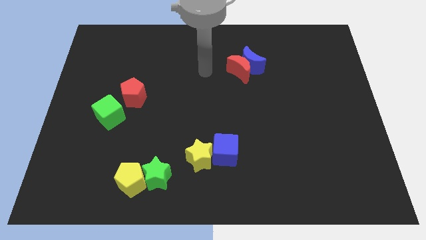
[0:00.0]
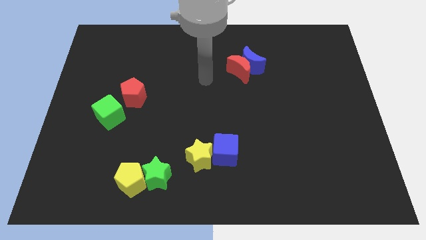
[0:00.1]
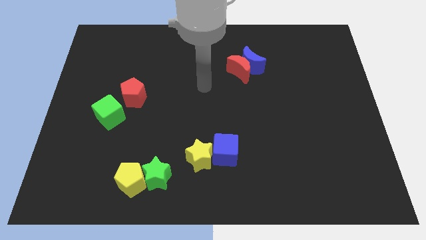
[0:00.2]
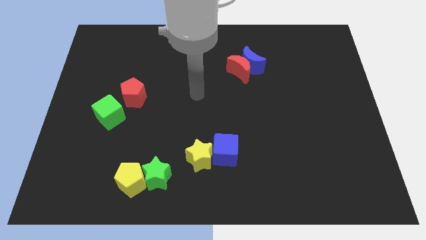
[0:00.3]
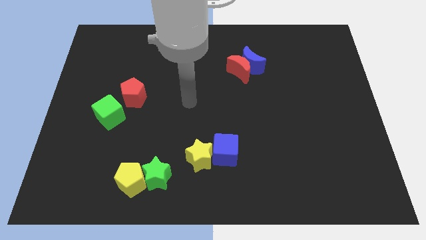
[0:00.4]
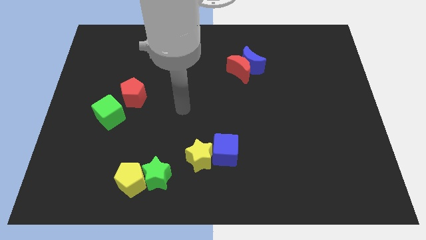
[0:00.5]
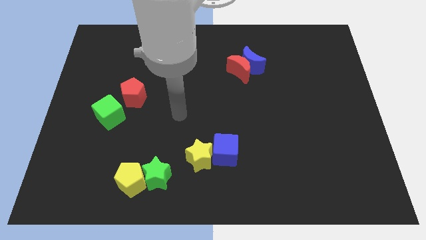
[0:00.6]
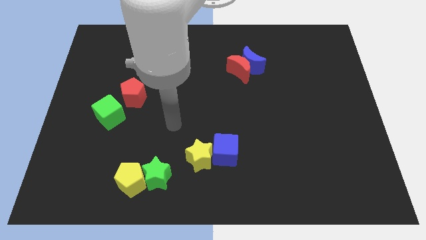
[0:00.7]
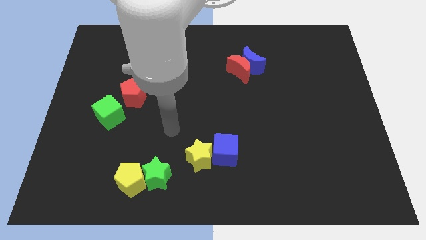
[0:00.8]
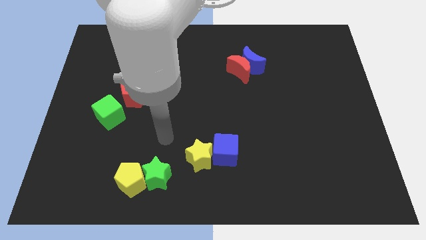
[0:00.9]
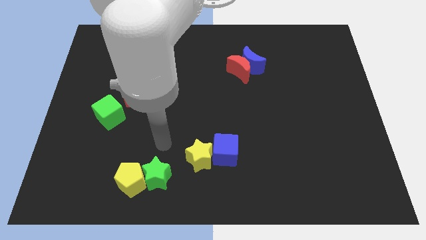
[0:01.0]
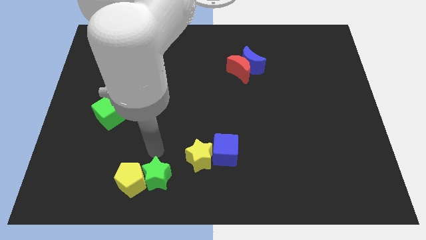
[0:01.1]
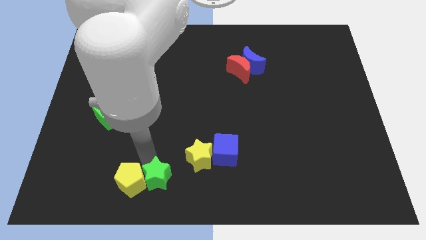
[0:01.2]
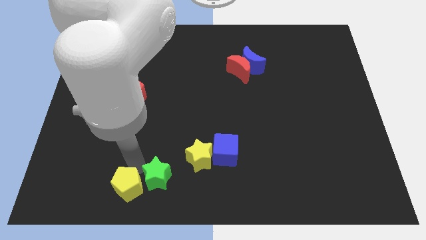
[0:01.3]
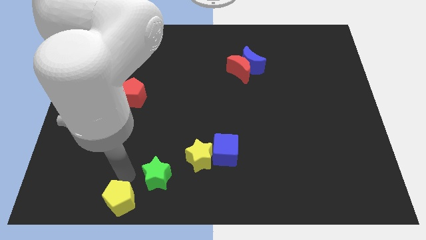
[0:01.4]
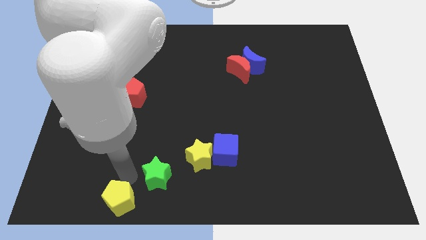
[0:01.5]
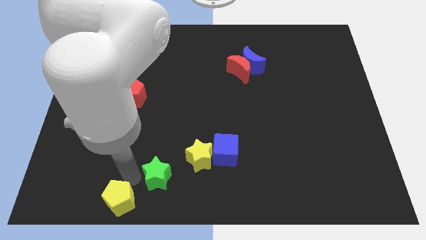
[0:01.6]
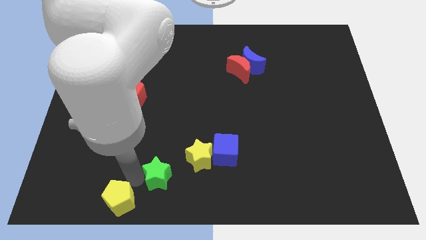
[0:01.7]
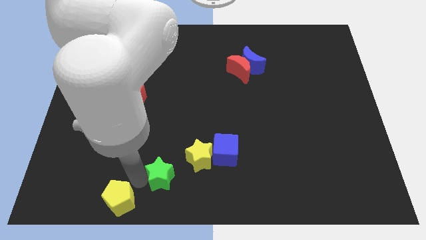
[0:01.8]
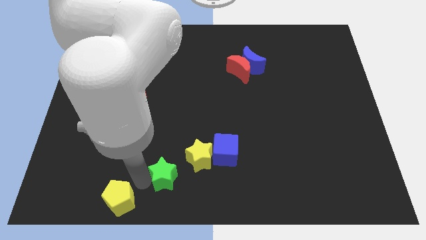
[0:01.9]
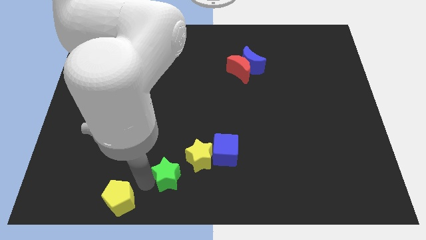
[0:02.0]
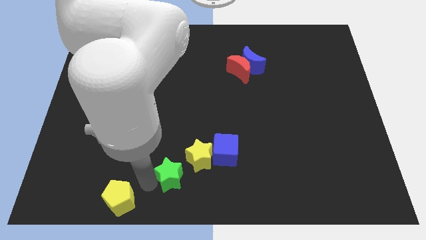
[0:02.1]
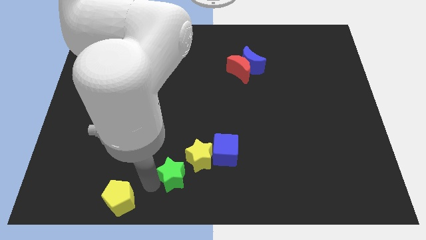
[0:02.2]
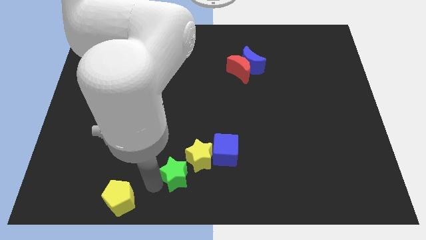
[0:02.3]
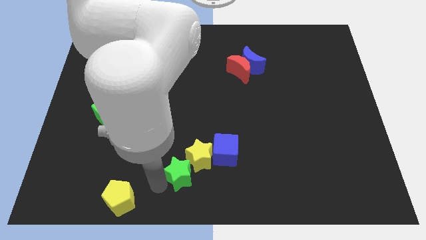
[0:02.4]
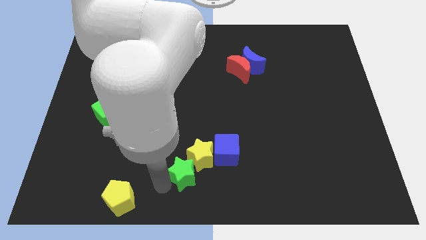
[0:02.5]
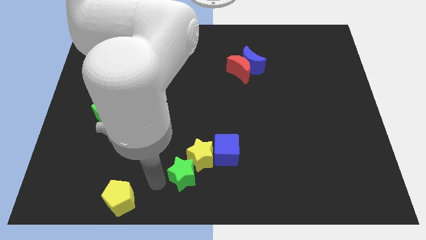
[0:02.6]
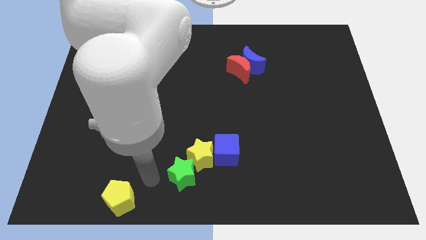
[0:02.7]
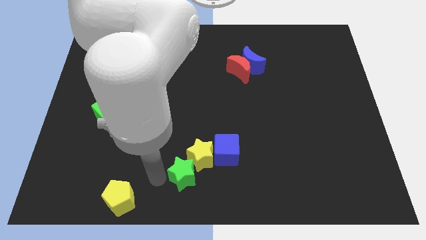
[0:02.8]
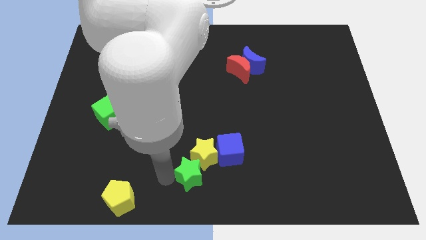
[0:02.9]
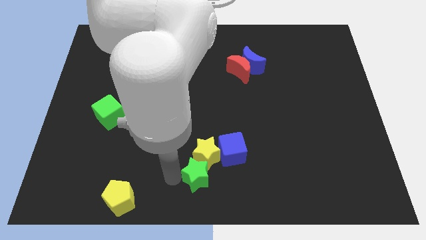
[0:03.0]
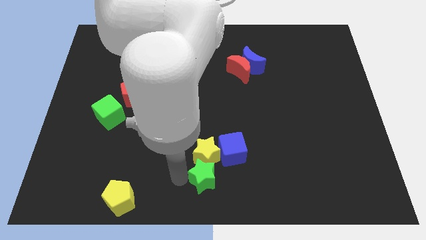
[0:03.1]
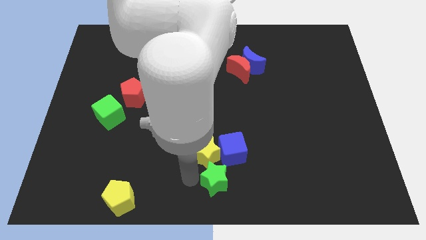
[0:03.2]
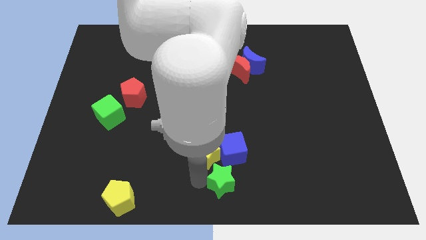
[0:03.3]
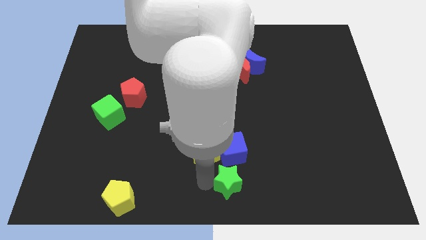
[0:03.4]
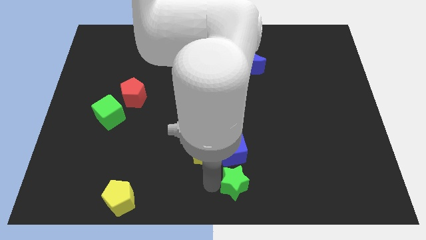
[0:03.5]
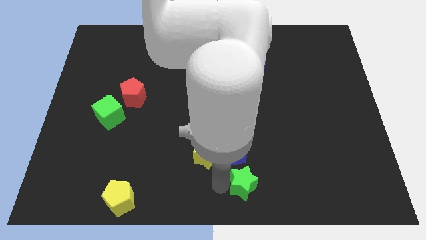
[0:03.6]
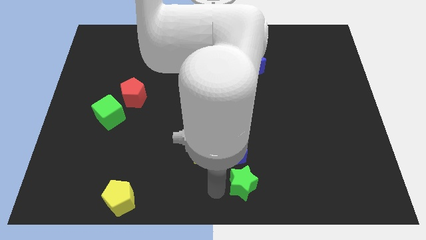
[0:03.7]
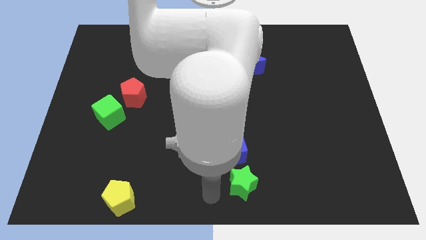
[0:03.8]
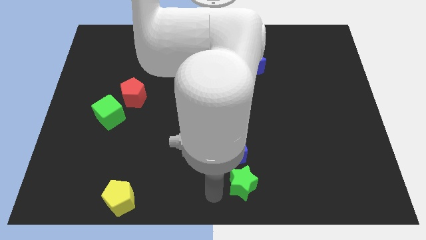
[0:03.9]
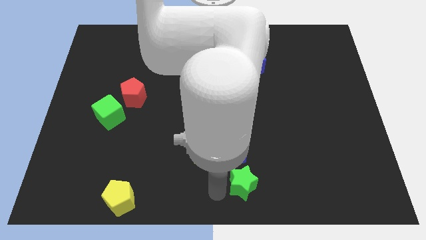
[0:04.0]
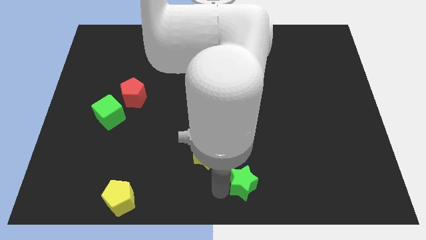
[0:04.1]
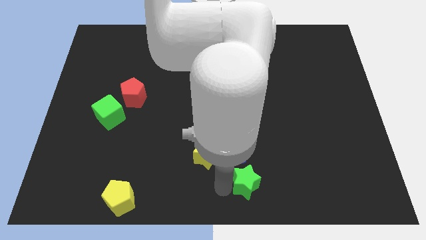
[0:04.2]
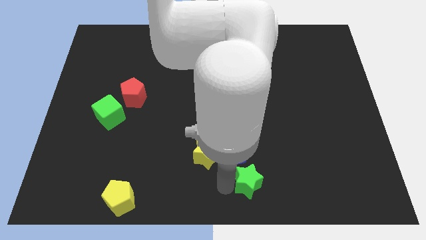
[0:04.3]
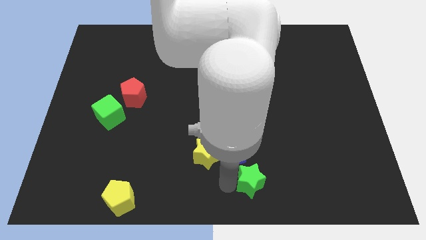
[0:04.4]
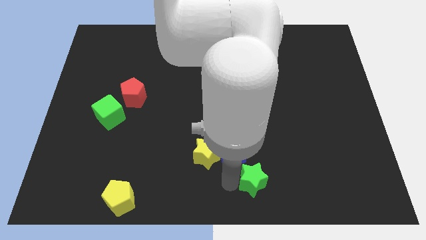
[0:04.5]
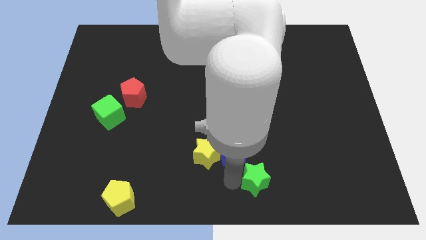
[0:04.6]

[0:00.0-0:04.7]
move the green star to the right

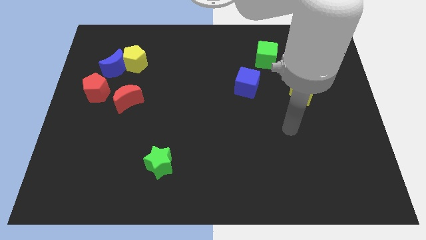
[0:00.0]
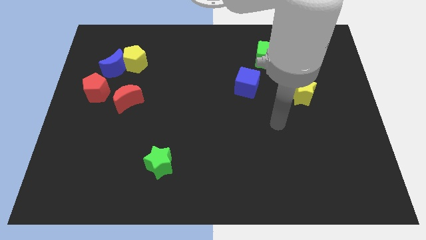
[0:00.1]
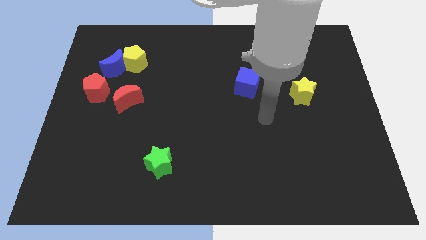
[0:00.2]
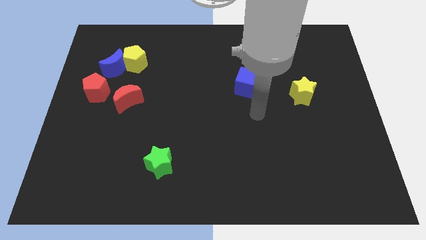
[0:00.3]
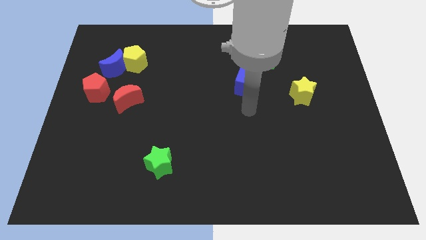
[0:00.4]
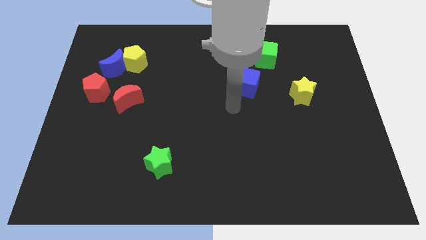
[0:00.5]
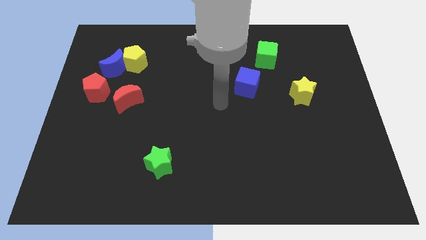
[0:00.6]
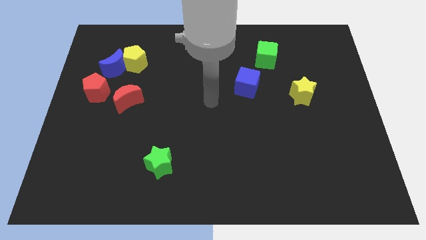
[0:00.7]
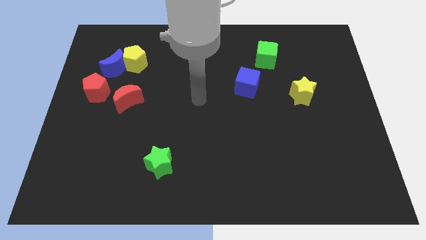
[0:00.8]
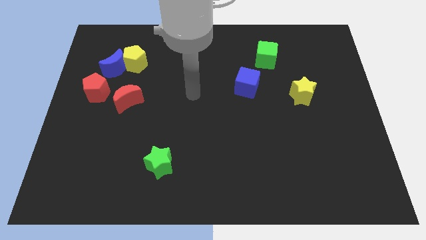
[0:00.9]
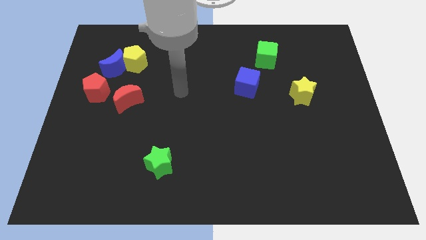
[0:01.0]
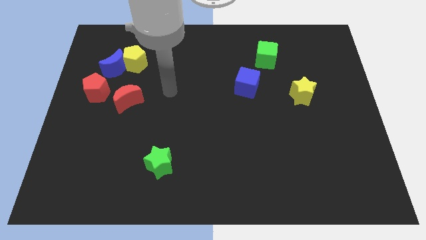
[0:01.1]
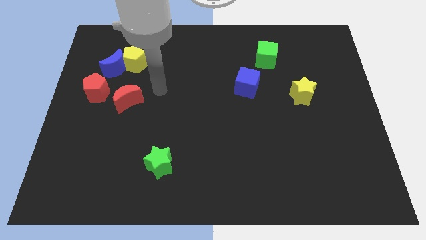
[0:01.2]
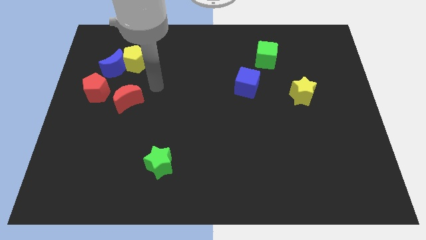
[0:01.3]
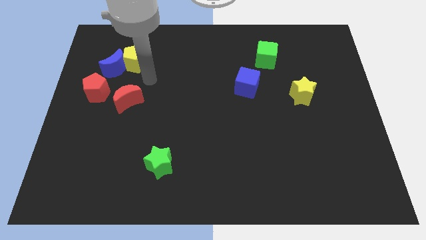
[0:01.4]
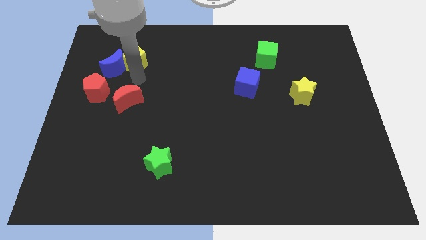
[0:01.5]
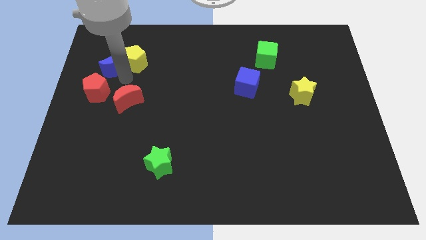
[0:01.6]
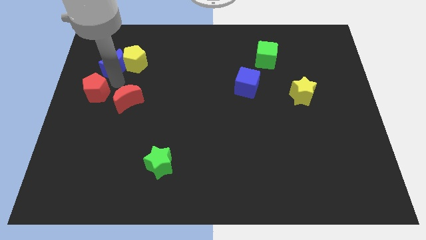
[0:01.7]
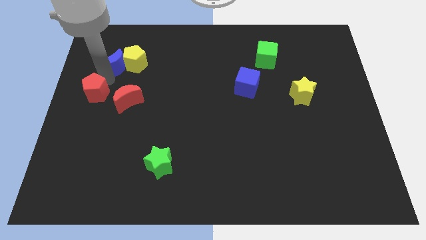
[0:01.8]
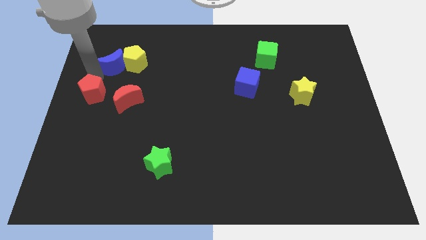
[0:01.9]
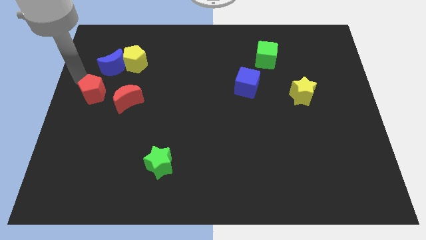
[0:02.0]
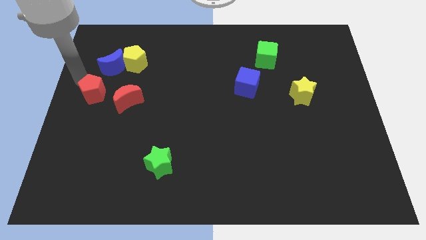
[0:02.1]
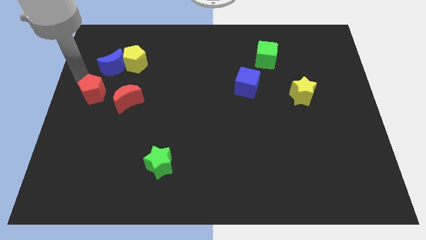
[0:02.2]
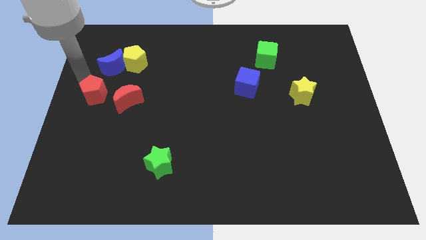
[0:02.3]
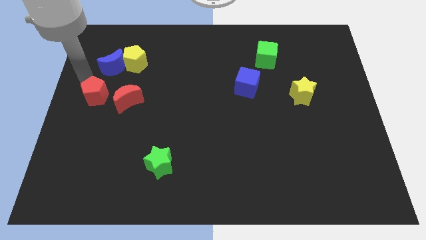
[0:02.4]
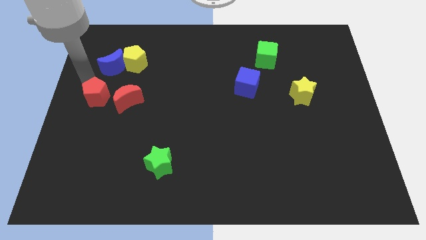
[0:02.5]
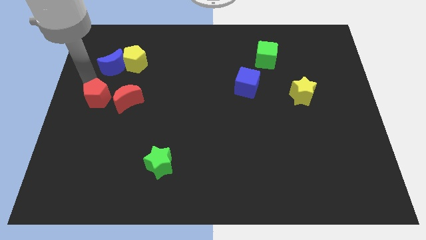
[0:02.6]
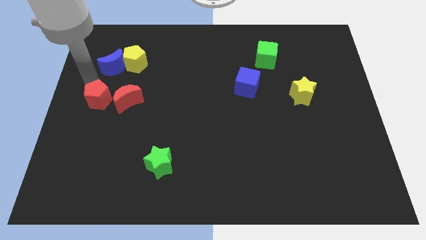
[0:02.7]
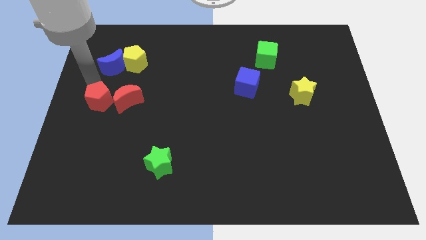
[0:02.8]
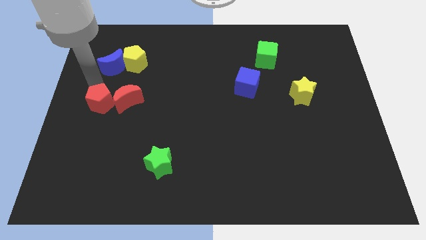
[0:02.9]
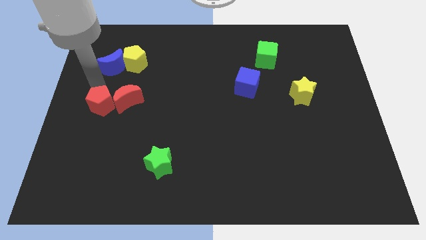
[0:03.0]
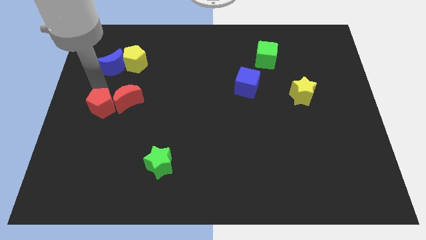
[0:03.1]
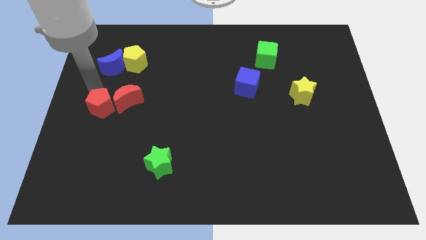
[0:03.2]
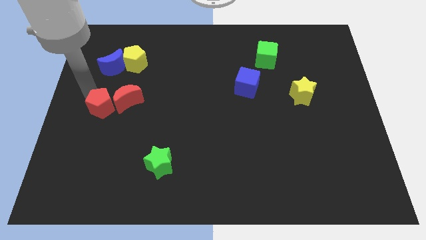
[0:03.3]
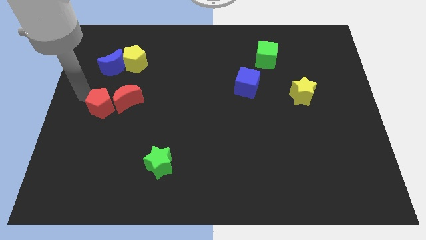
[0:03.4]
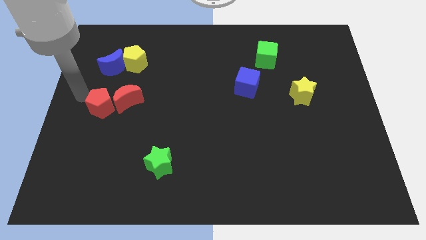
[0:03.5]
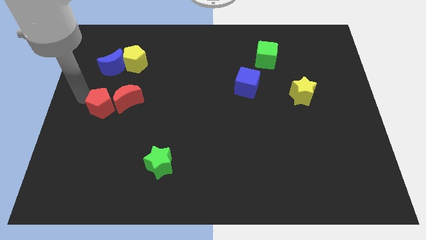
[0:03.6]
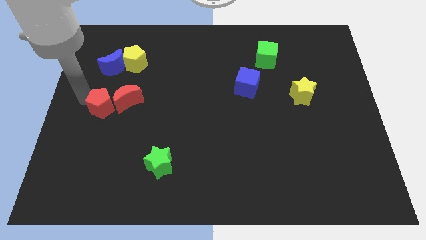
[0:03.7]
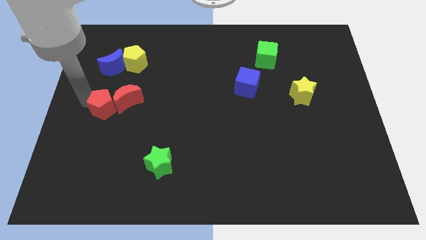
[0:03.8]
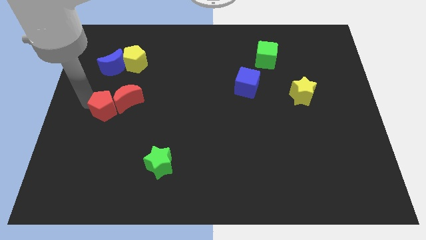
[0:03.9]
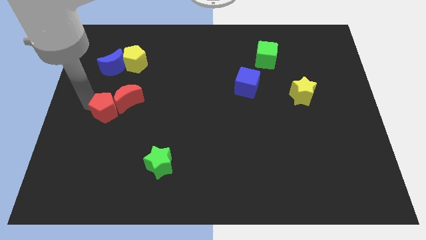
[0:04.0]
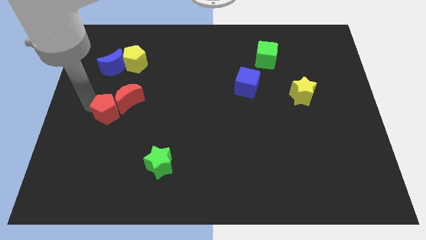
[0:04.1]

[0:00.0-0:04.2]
move the red pentagon downwards and then to the right a little bit
